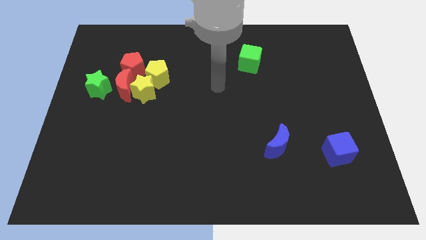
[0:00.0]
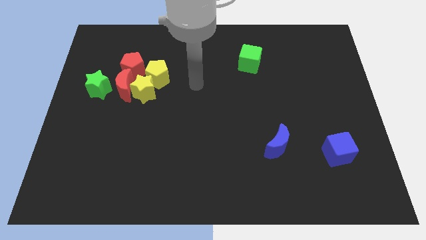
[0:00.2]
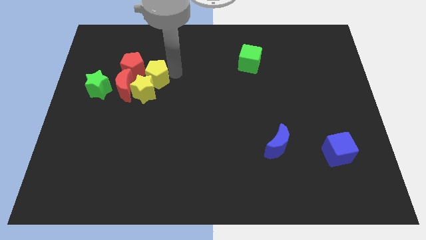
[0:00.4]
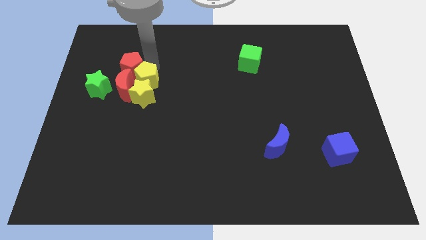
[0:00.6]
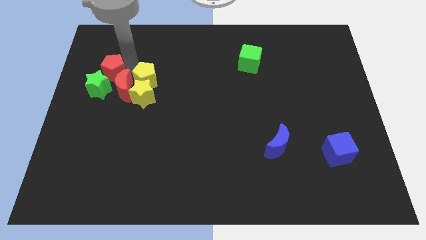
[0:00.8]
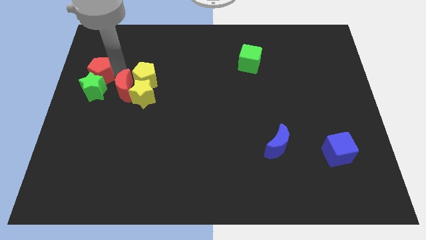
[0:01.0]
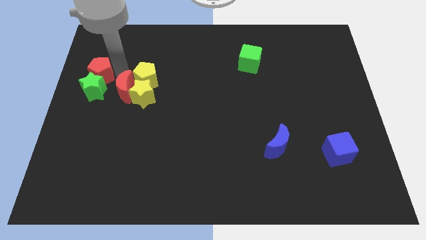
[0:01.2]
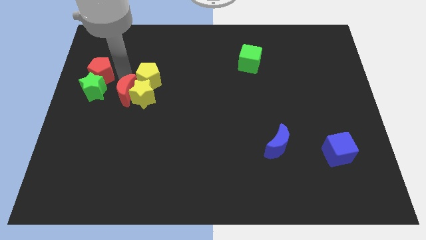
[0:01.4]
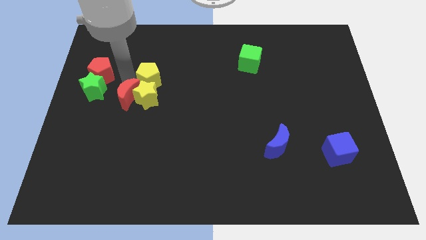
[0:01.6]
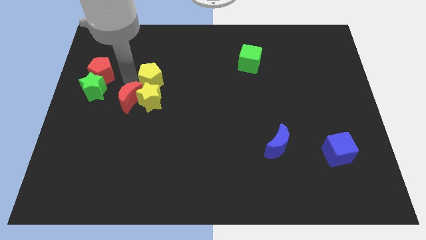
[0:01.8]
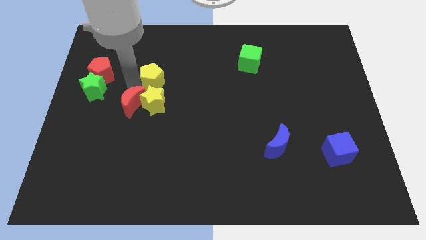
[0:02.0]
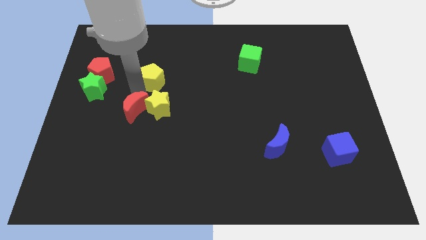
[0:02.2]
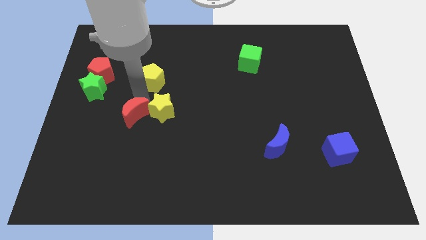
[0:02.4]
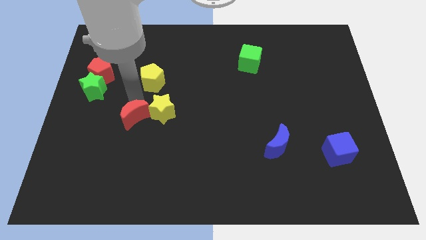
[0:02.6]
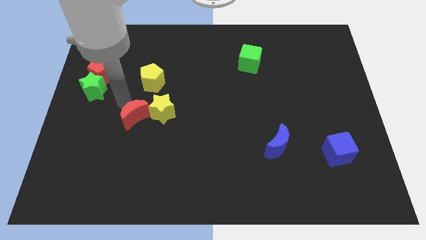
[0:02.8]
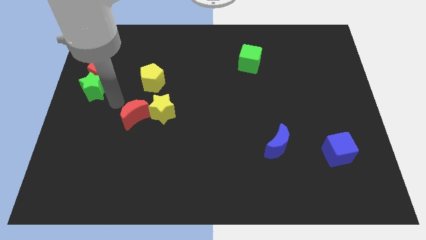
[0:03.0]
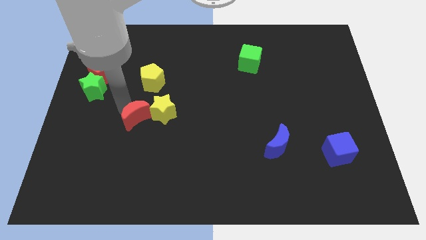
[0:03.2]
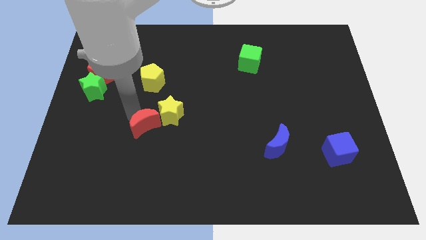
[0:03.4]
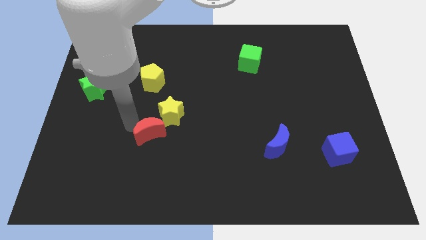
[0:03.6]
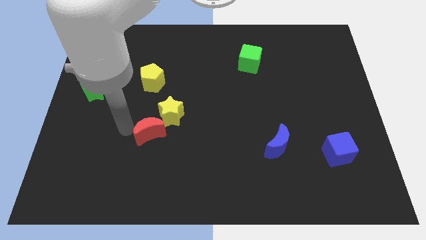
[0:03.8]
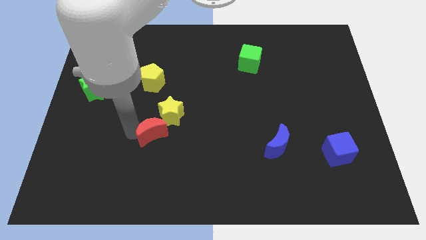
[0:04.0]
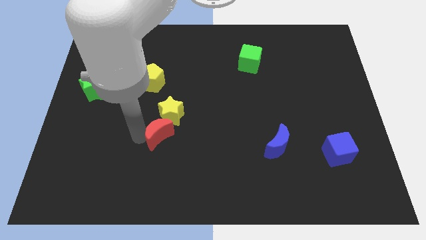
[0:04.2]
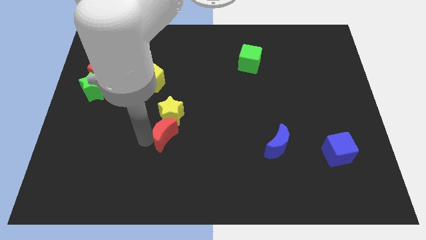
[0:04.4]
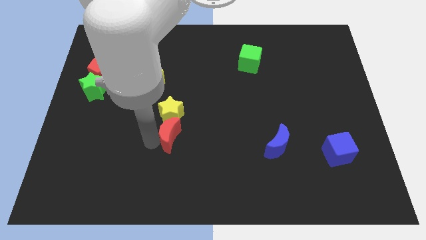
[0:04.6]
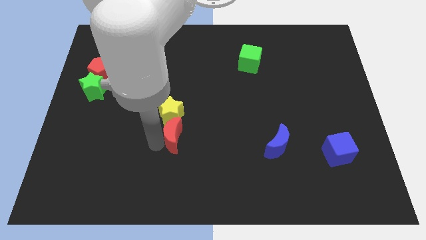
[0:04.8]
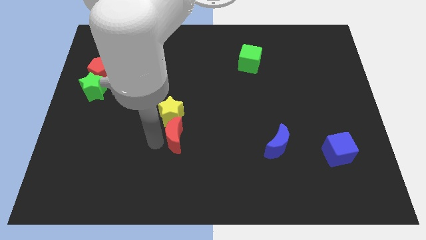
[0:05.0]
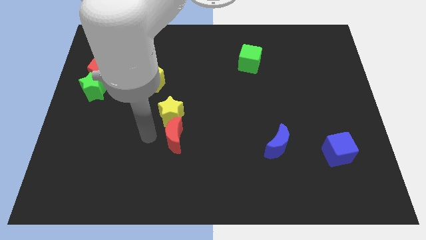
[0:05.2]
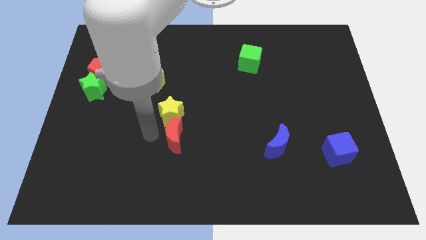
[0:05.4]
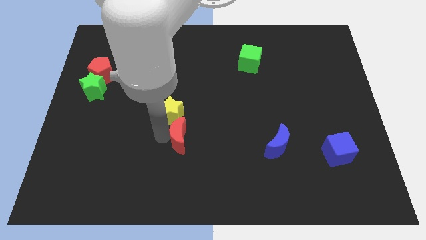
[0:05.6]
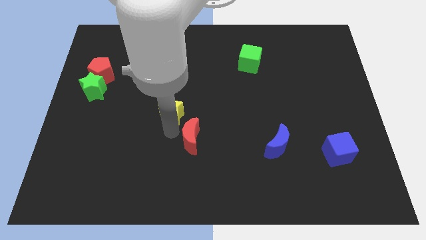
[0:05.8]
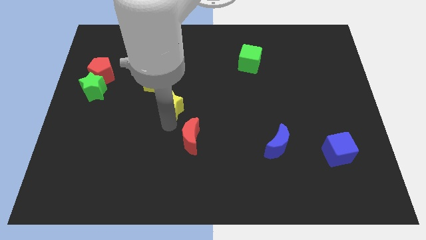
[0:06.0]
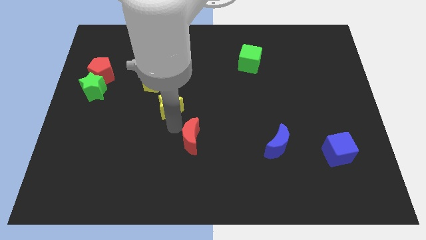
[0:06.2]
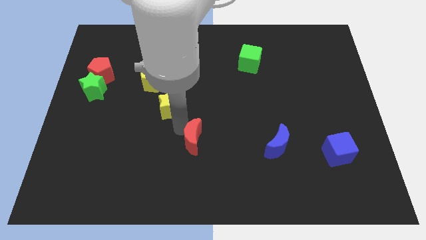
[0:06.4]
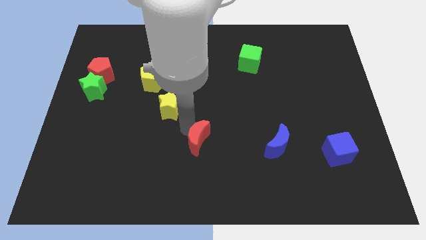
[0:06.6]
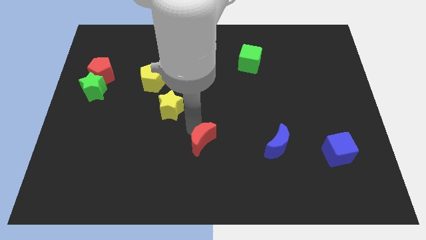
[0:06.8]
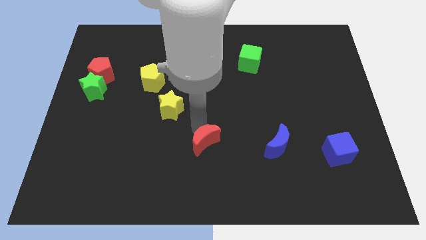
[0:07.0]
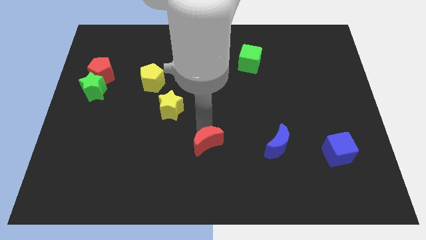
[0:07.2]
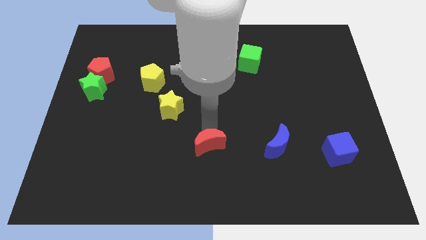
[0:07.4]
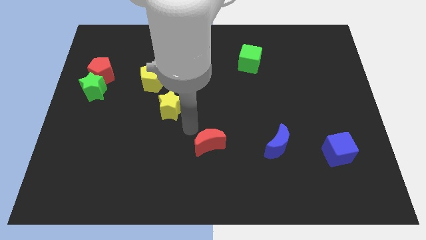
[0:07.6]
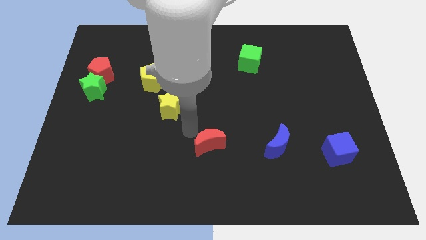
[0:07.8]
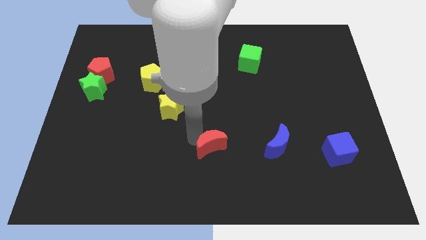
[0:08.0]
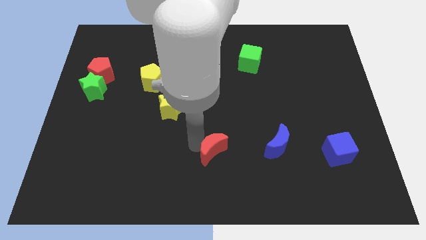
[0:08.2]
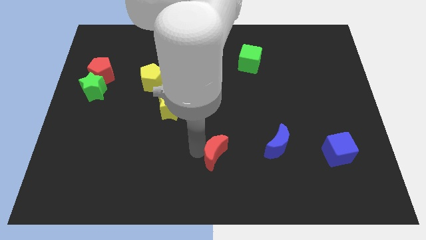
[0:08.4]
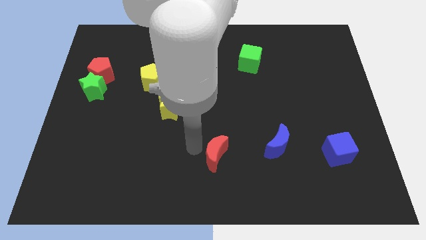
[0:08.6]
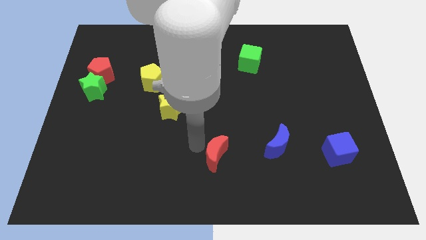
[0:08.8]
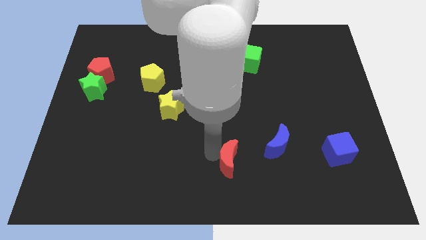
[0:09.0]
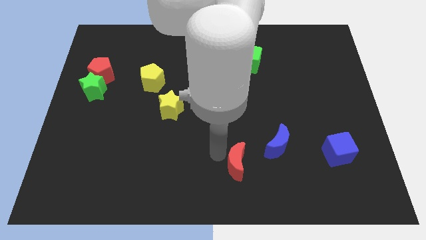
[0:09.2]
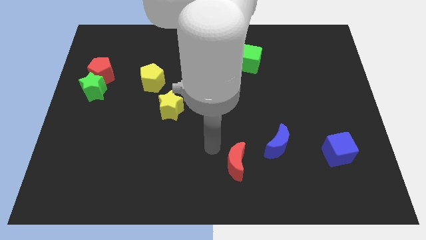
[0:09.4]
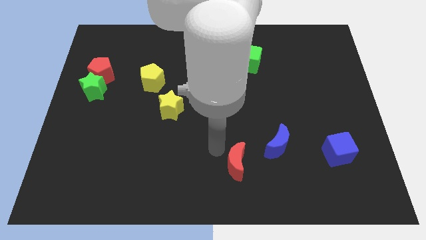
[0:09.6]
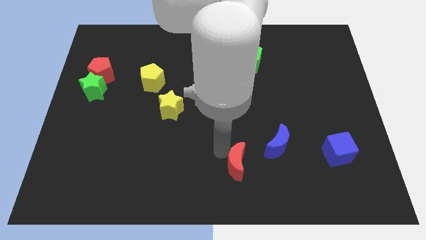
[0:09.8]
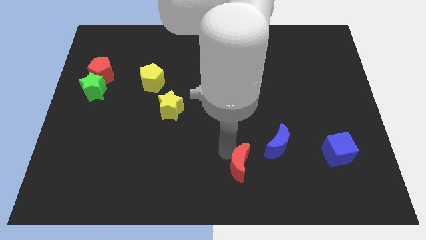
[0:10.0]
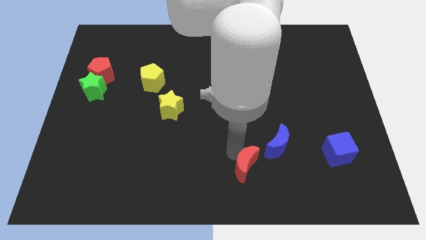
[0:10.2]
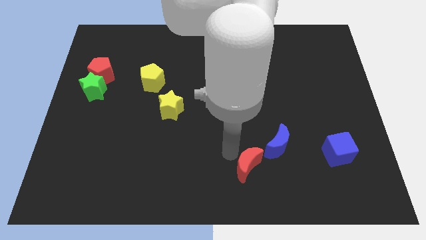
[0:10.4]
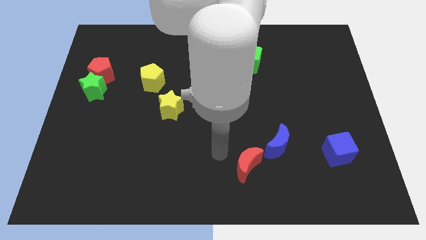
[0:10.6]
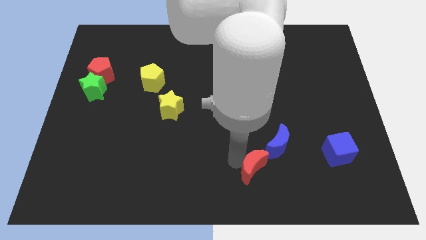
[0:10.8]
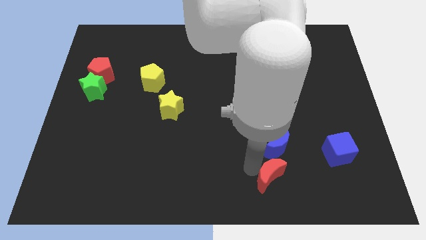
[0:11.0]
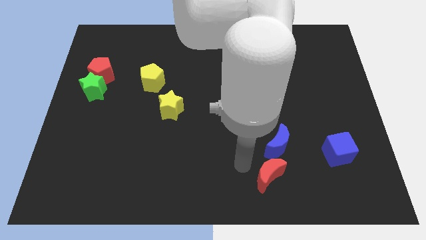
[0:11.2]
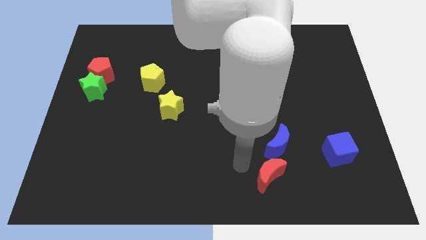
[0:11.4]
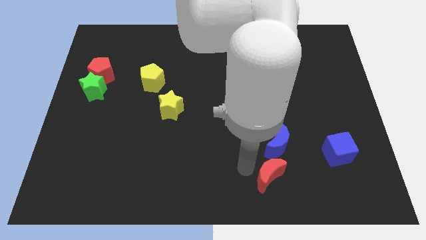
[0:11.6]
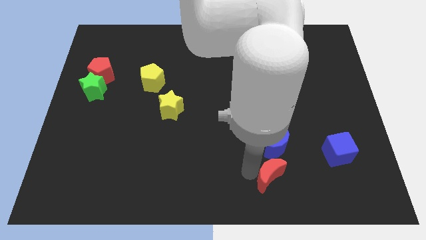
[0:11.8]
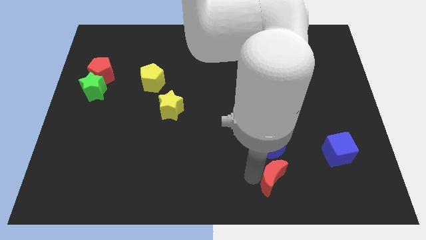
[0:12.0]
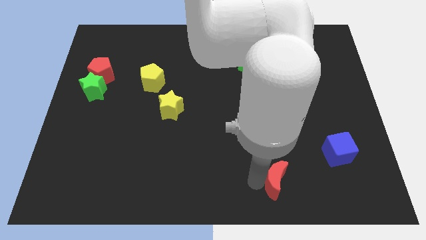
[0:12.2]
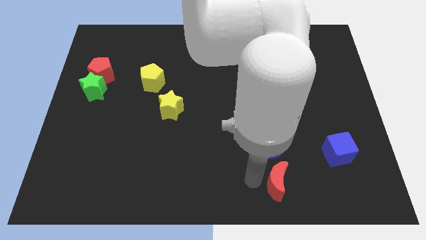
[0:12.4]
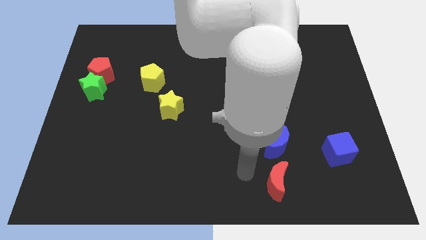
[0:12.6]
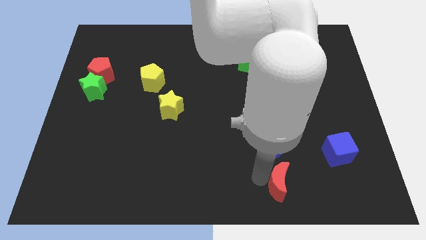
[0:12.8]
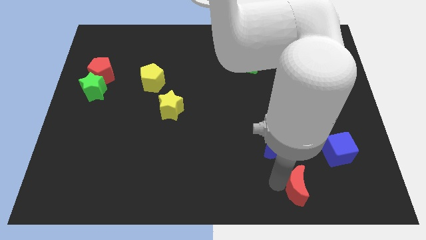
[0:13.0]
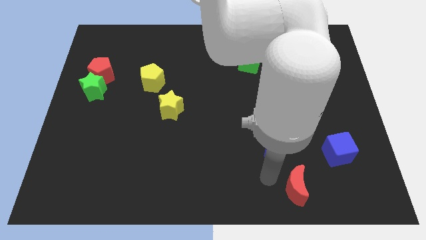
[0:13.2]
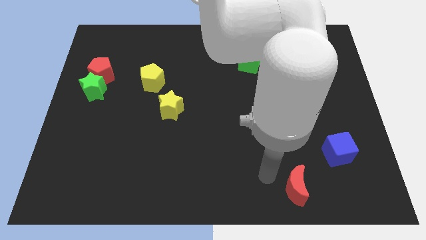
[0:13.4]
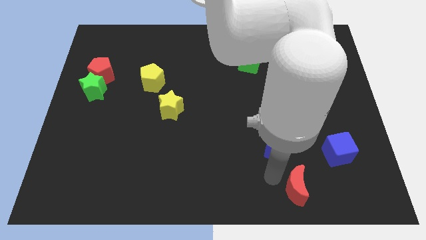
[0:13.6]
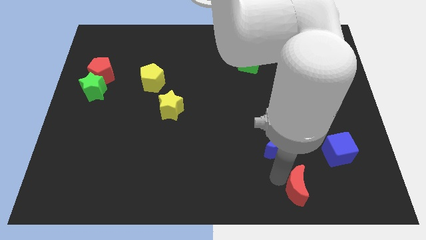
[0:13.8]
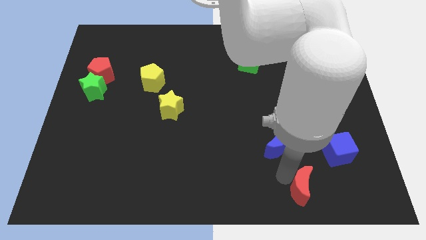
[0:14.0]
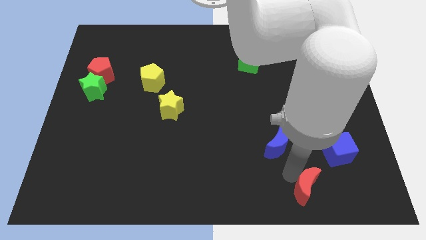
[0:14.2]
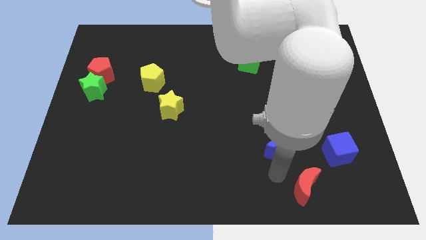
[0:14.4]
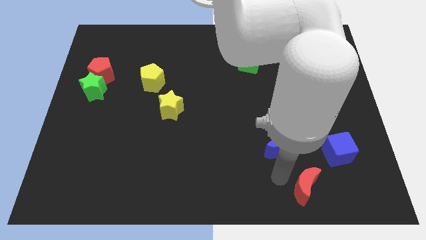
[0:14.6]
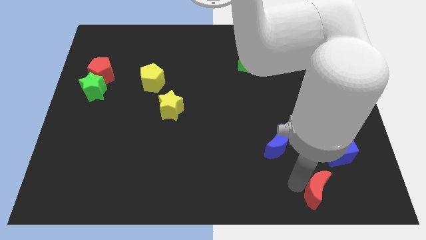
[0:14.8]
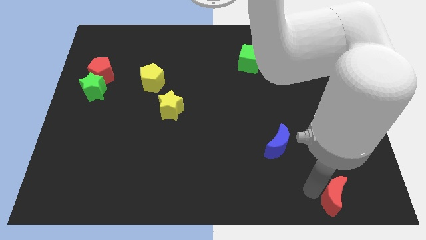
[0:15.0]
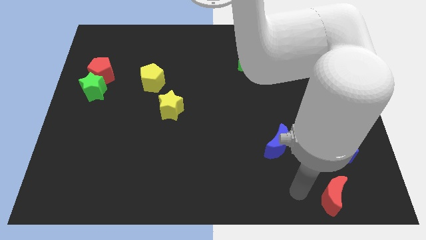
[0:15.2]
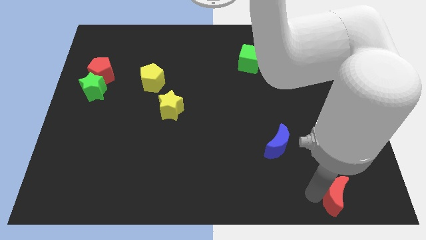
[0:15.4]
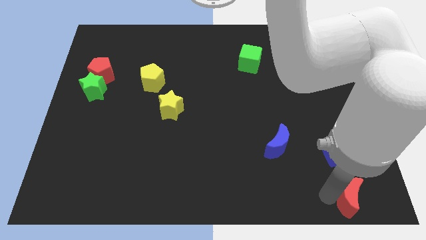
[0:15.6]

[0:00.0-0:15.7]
put the red moon to the bottom right corner

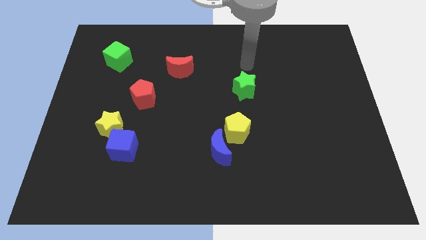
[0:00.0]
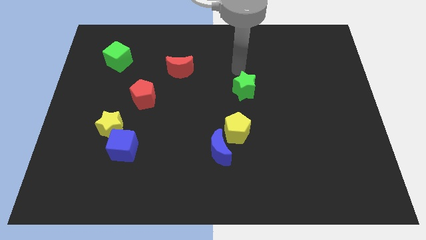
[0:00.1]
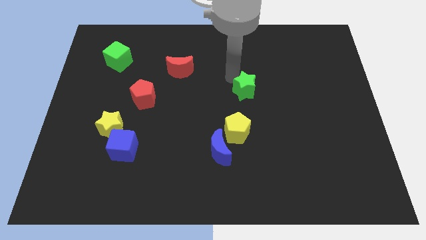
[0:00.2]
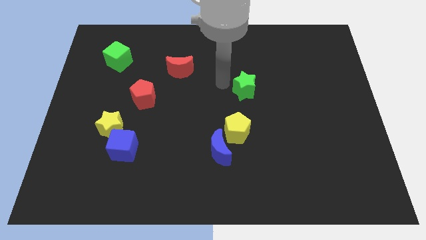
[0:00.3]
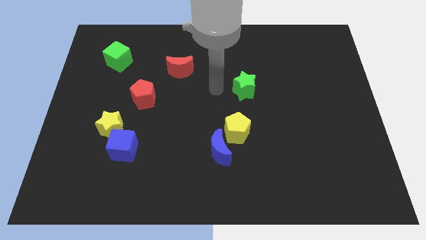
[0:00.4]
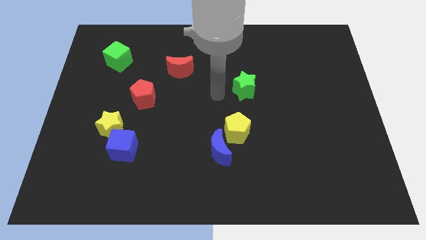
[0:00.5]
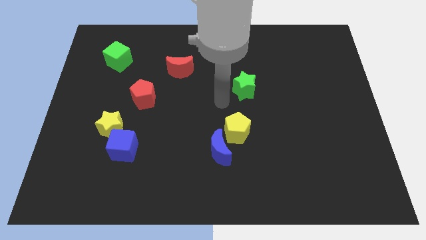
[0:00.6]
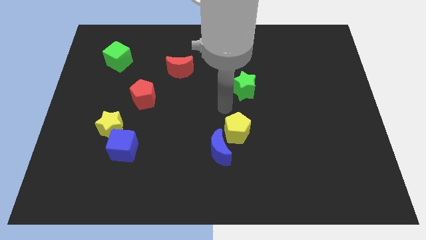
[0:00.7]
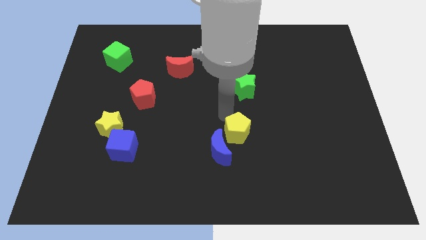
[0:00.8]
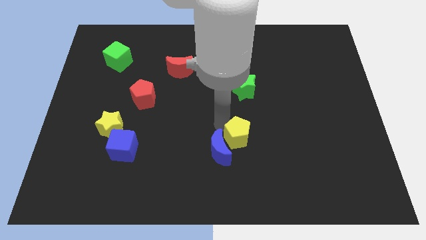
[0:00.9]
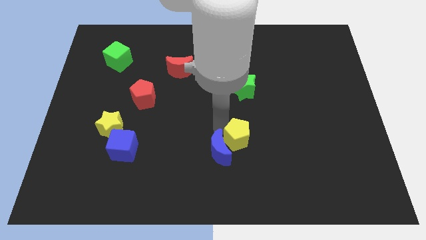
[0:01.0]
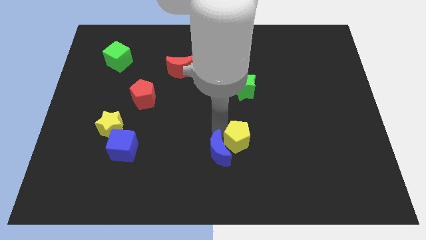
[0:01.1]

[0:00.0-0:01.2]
slide the blue moon to the bottom
